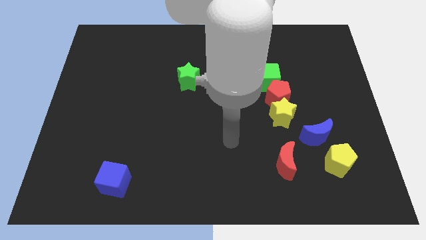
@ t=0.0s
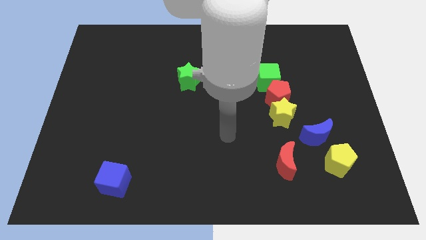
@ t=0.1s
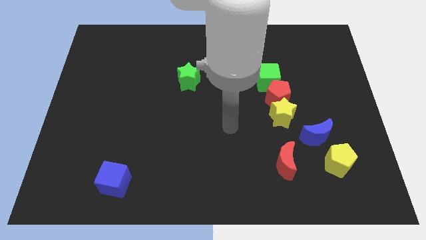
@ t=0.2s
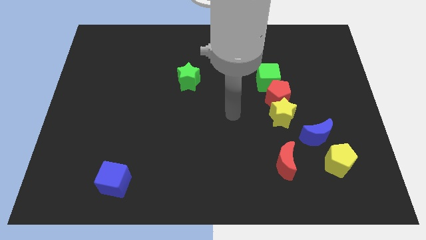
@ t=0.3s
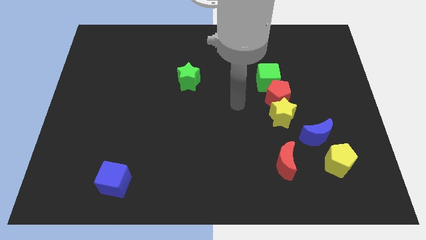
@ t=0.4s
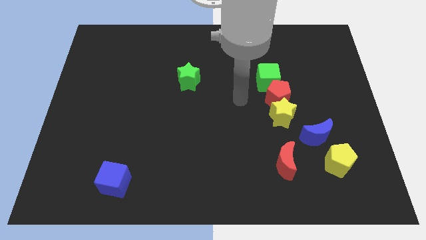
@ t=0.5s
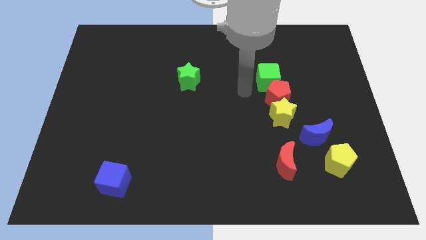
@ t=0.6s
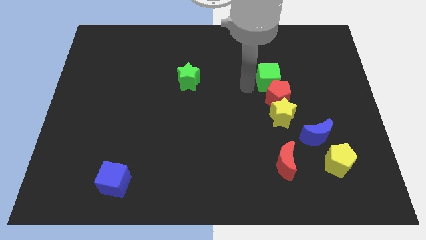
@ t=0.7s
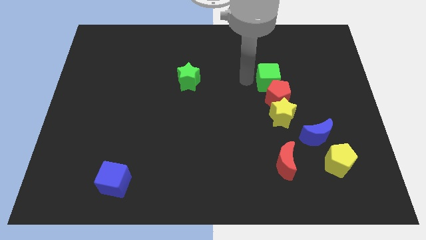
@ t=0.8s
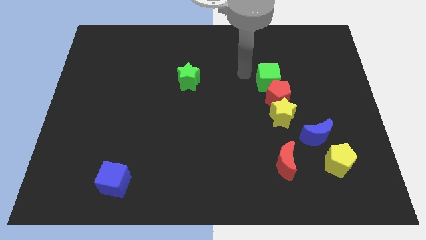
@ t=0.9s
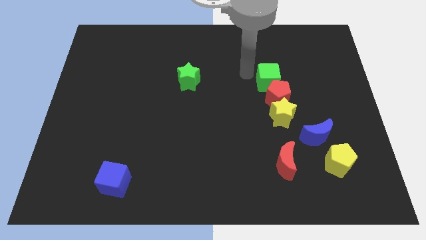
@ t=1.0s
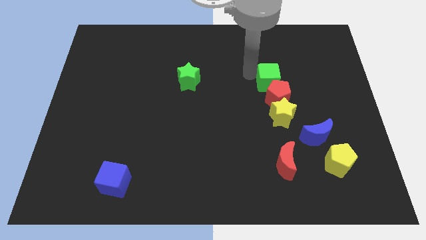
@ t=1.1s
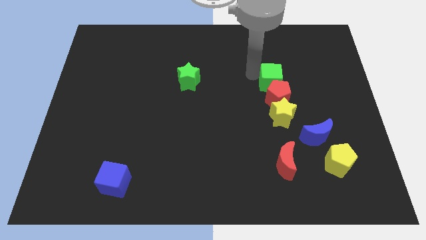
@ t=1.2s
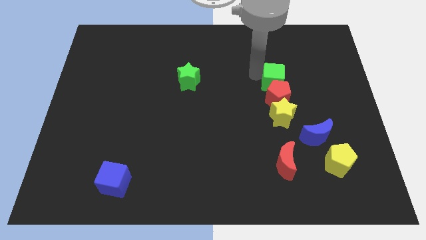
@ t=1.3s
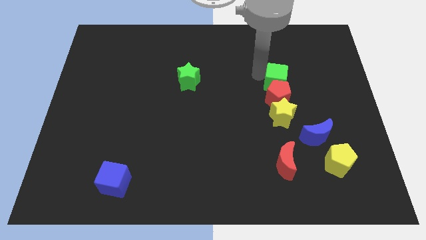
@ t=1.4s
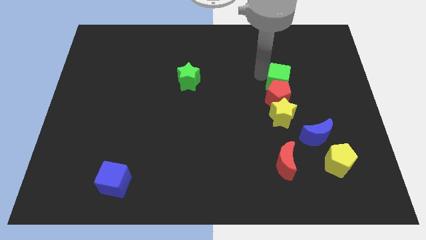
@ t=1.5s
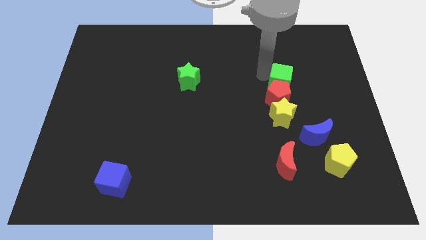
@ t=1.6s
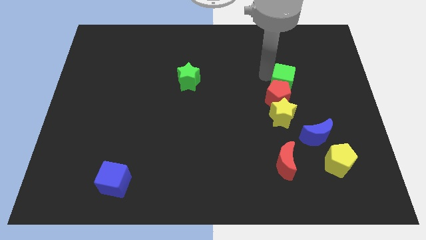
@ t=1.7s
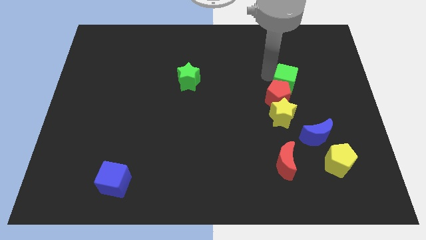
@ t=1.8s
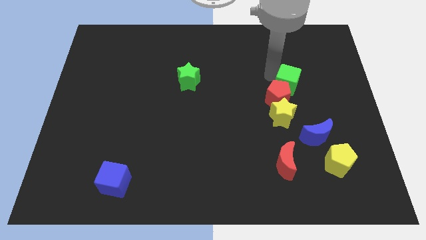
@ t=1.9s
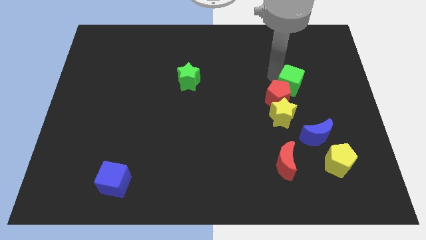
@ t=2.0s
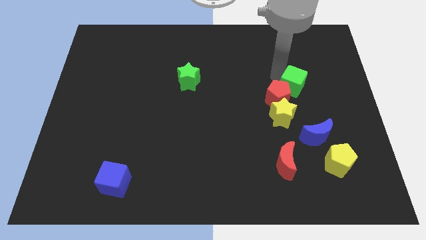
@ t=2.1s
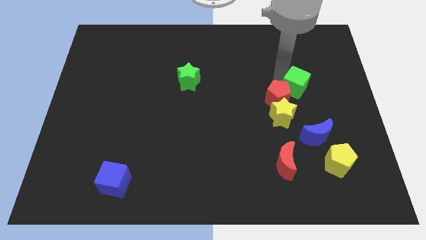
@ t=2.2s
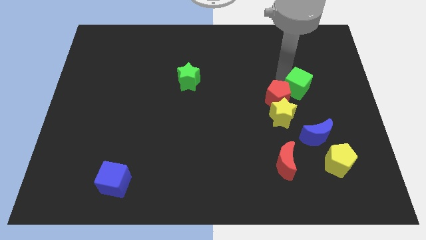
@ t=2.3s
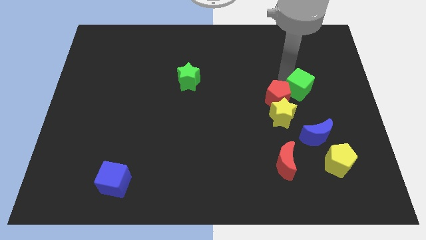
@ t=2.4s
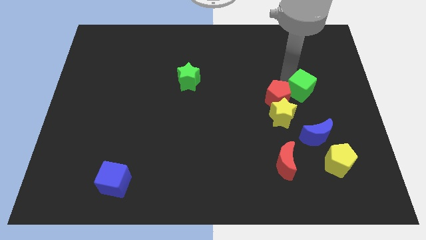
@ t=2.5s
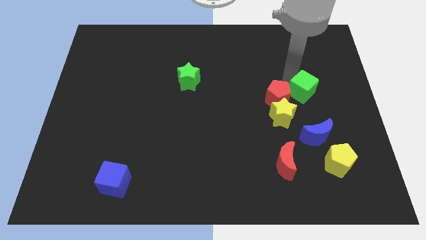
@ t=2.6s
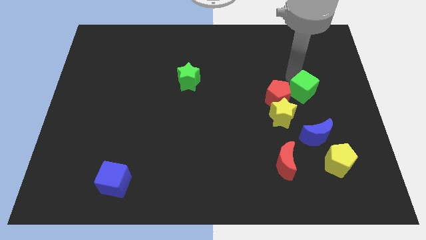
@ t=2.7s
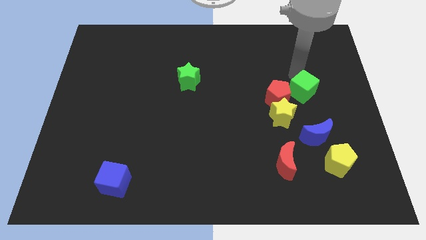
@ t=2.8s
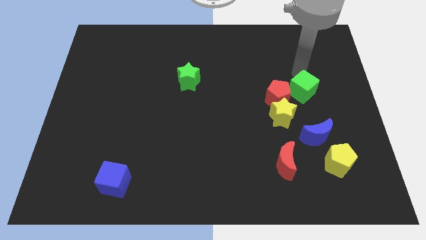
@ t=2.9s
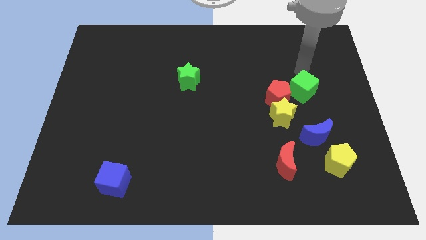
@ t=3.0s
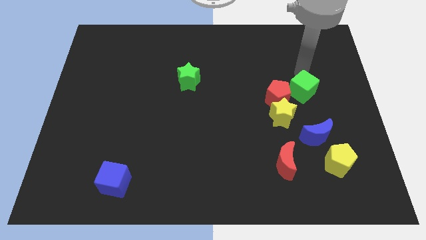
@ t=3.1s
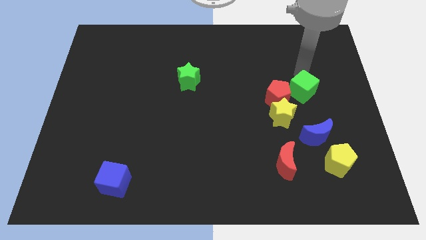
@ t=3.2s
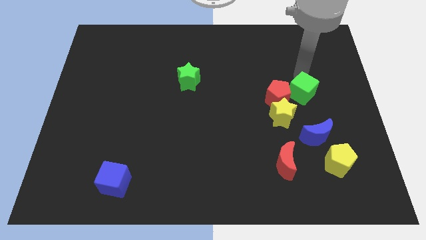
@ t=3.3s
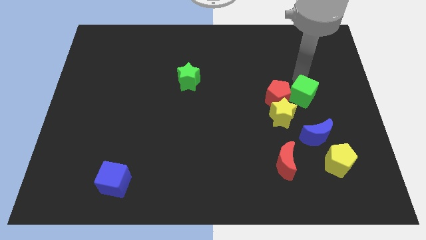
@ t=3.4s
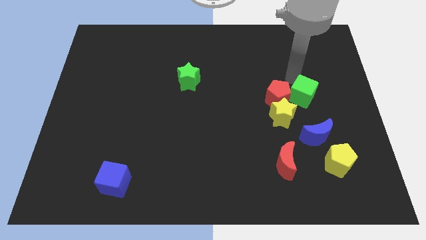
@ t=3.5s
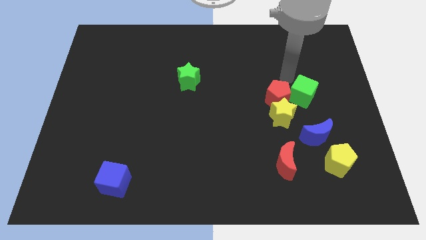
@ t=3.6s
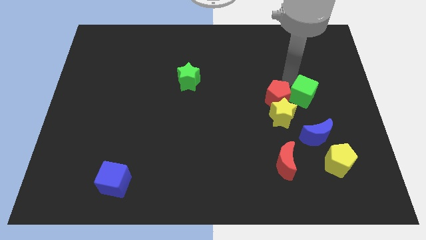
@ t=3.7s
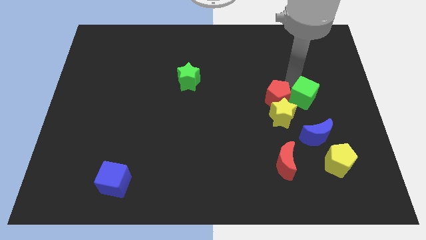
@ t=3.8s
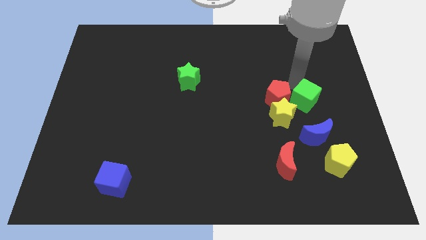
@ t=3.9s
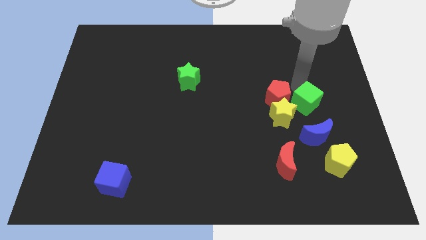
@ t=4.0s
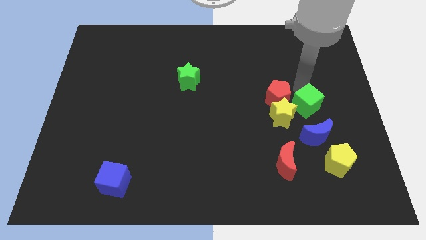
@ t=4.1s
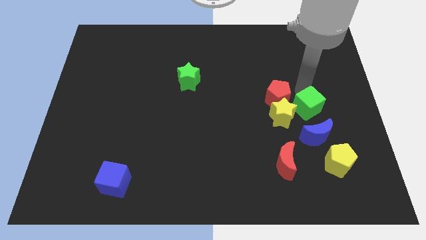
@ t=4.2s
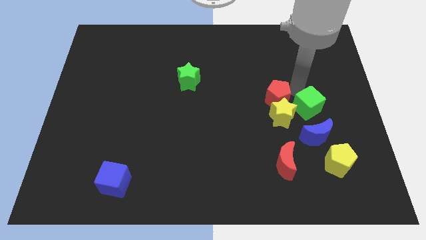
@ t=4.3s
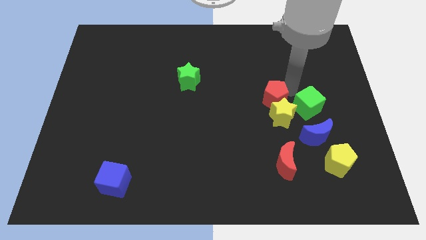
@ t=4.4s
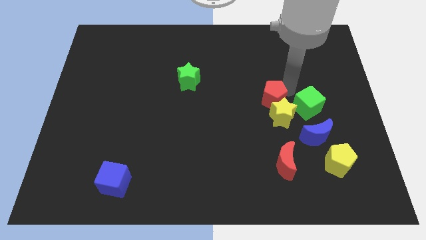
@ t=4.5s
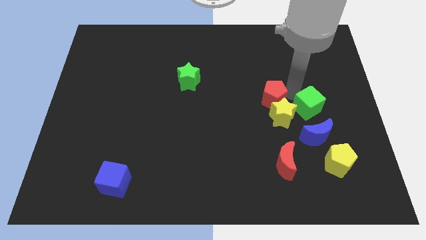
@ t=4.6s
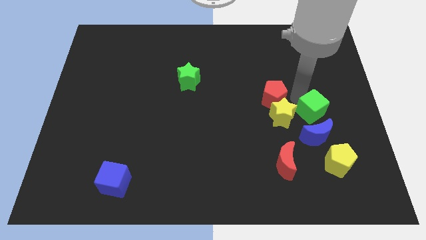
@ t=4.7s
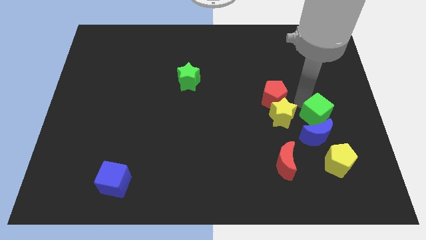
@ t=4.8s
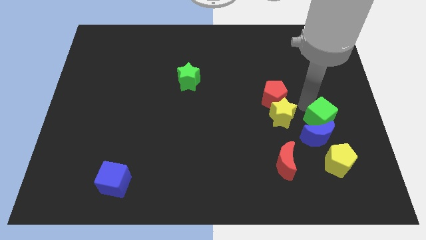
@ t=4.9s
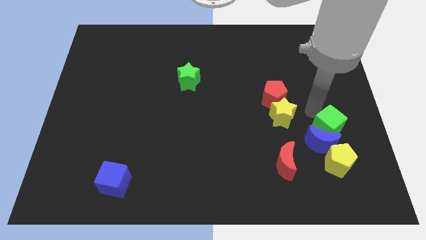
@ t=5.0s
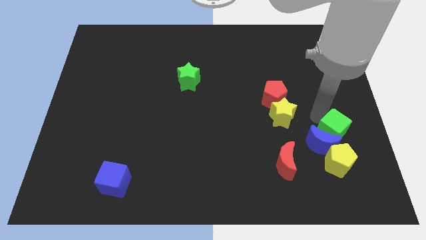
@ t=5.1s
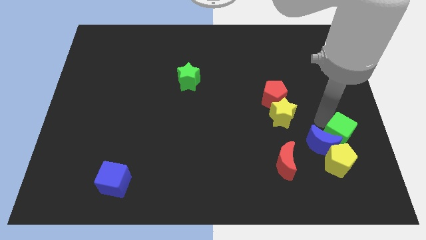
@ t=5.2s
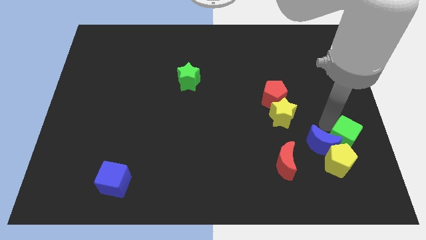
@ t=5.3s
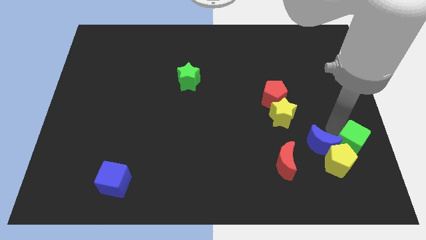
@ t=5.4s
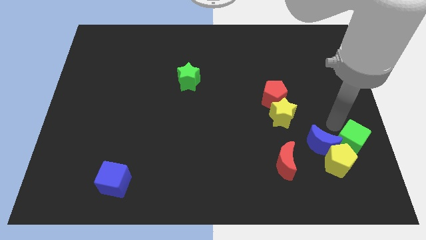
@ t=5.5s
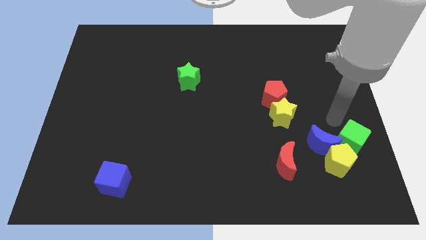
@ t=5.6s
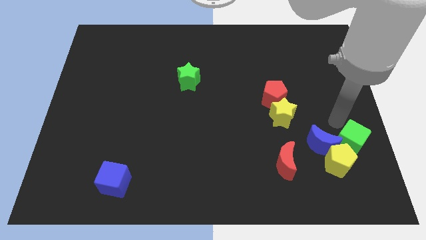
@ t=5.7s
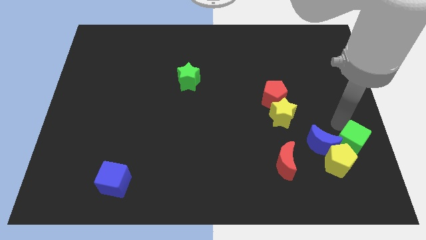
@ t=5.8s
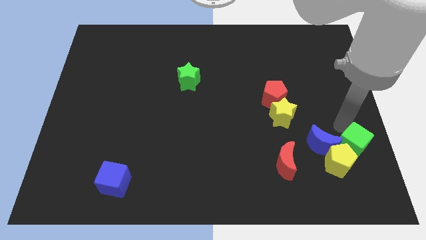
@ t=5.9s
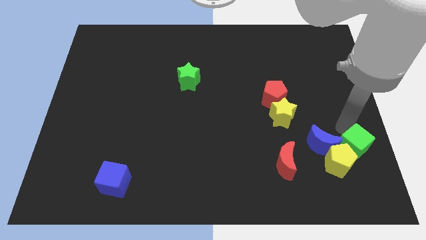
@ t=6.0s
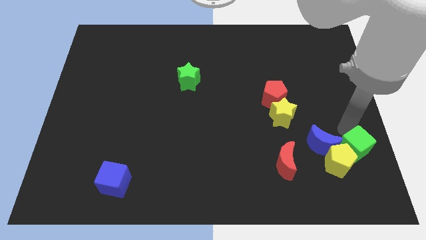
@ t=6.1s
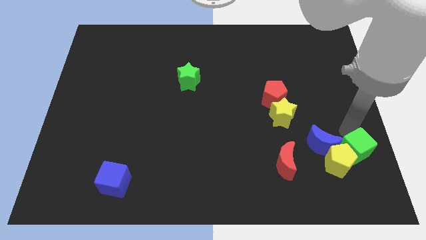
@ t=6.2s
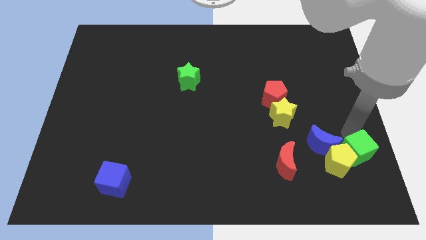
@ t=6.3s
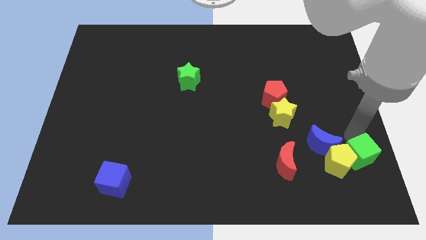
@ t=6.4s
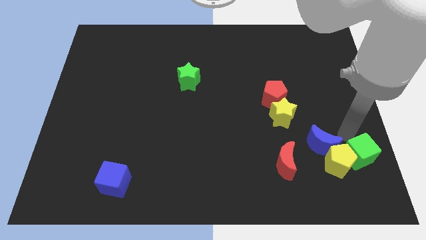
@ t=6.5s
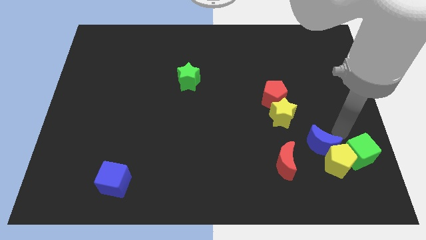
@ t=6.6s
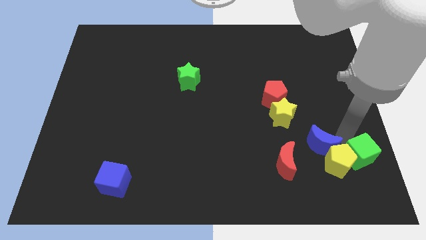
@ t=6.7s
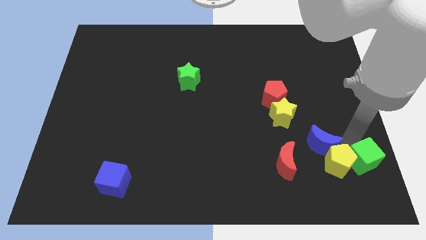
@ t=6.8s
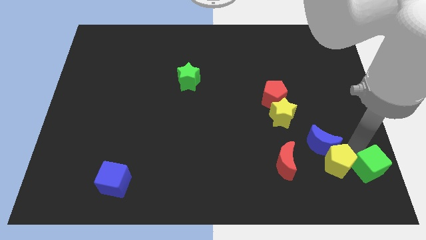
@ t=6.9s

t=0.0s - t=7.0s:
move the green cube to the bottom right of the board
